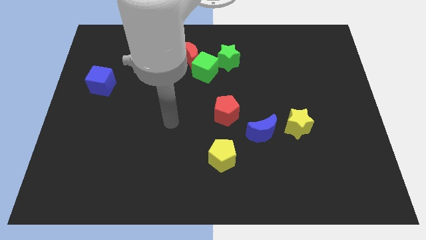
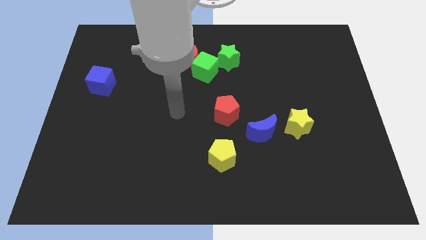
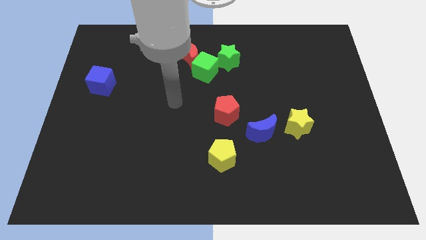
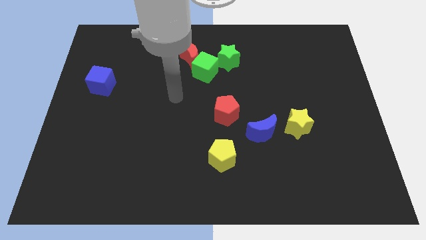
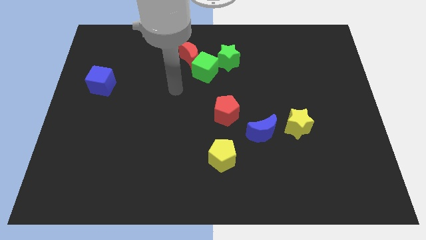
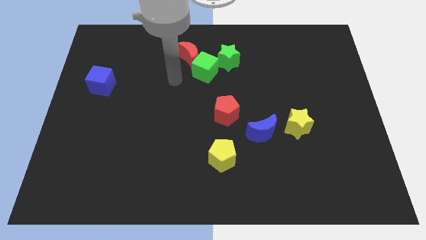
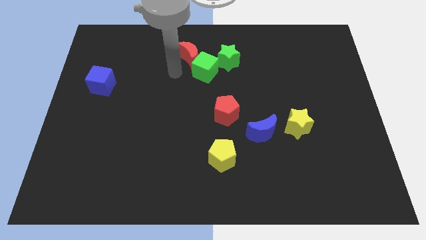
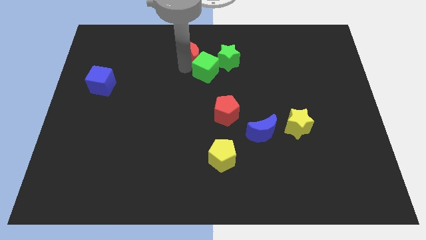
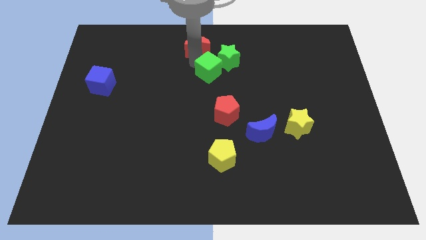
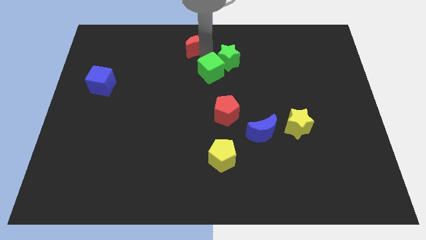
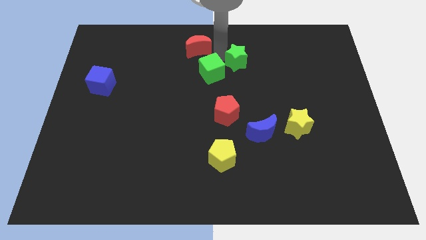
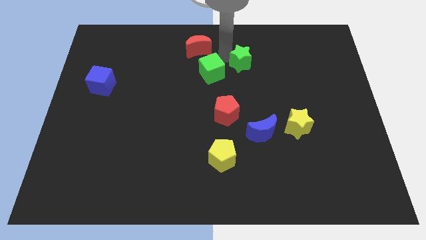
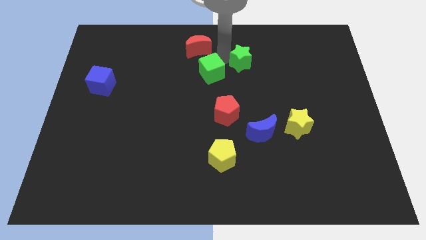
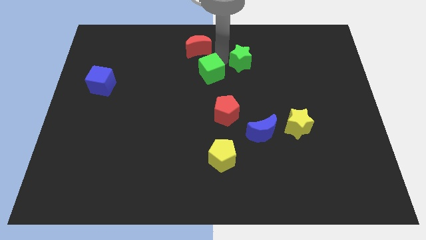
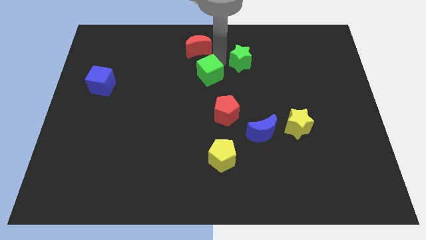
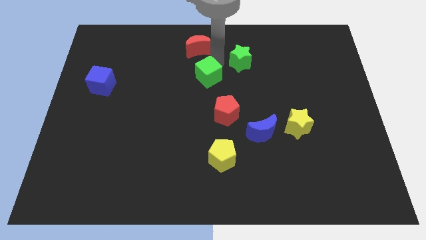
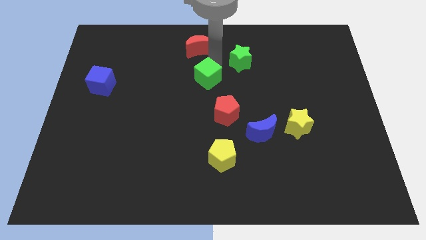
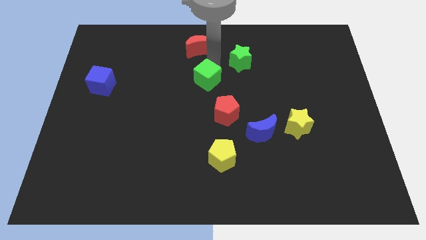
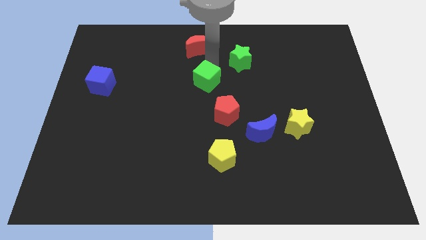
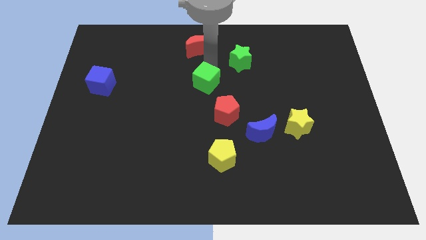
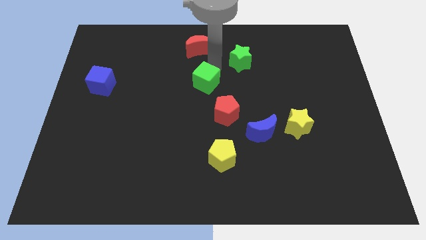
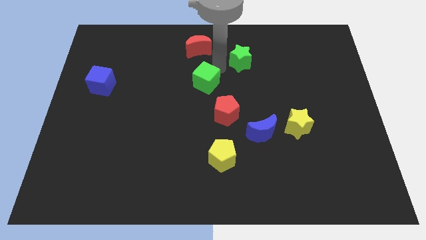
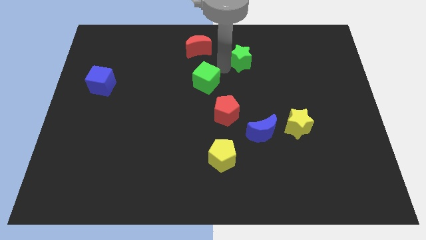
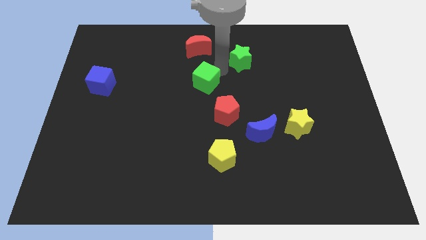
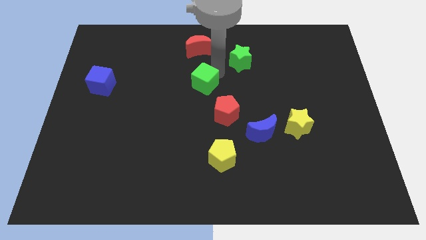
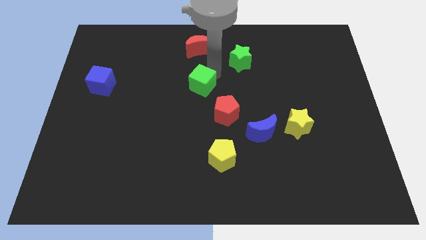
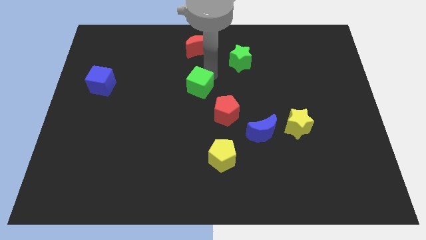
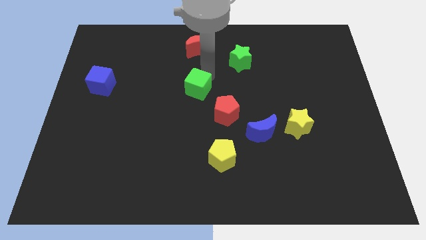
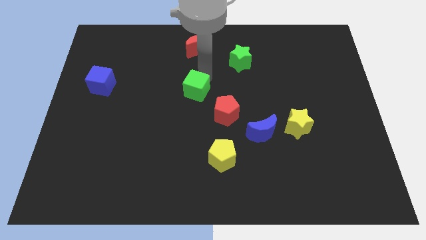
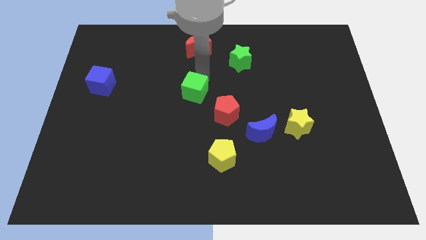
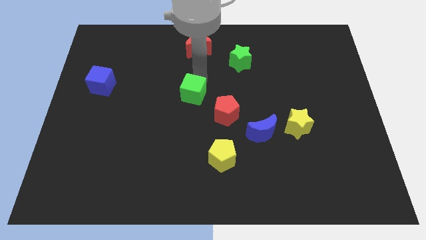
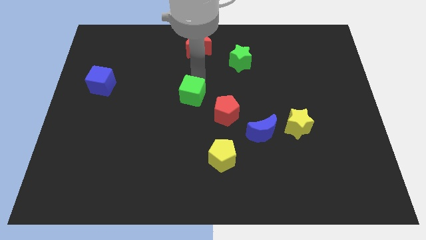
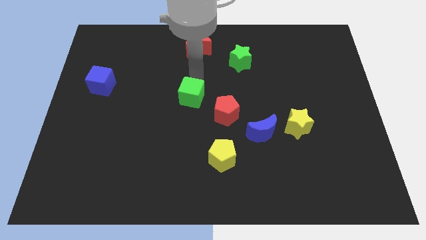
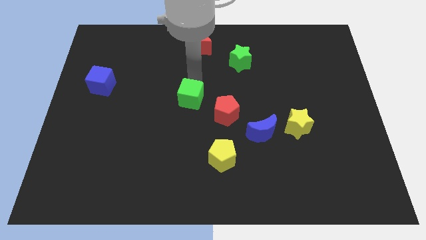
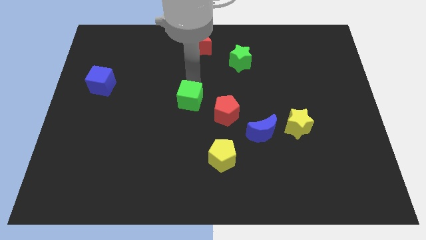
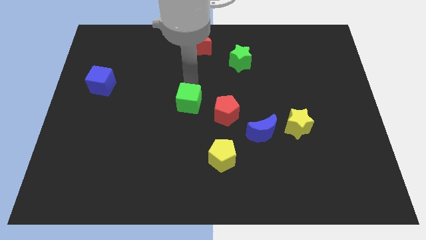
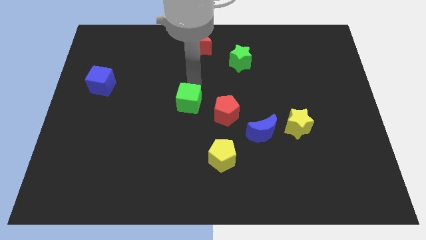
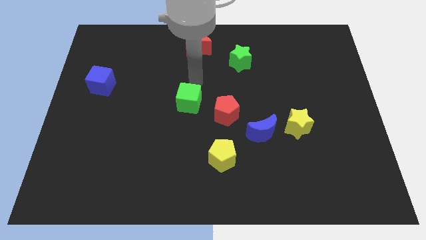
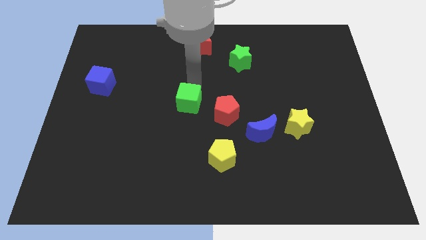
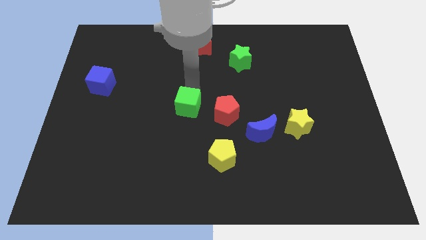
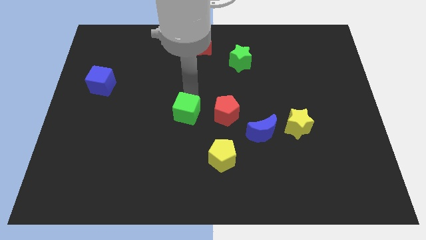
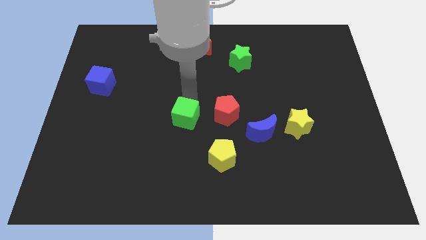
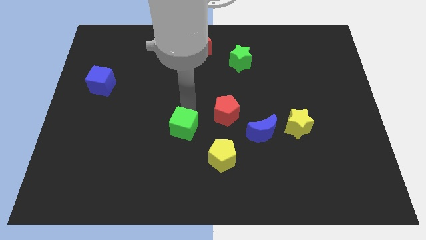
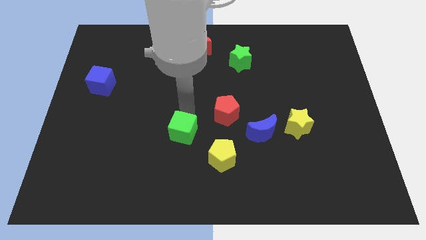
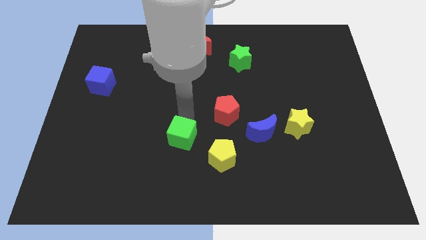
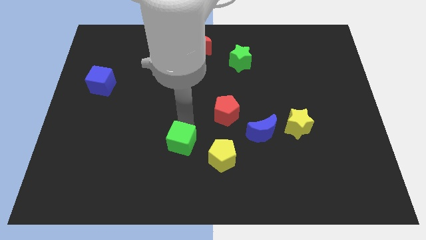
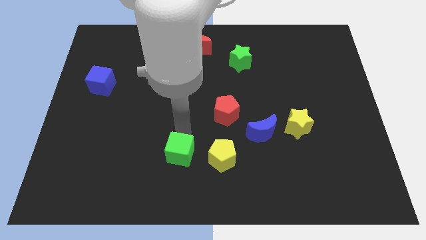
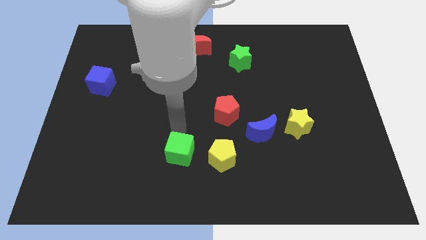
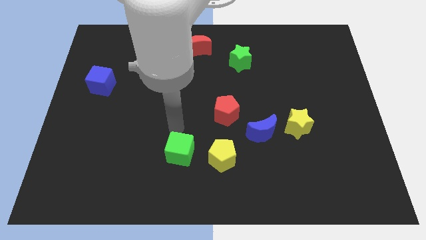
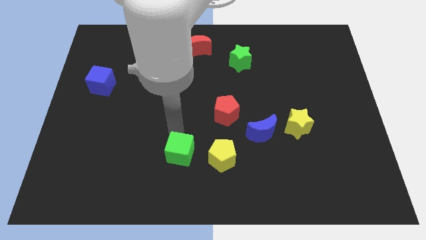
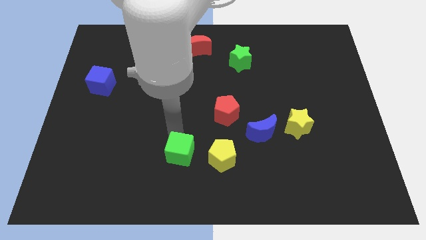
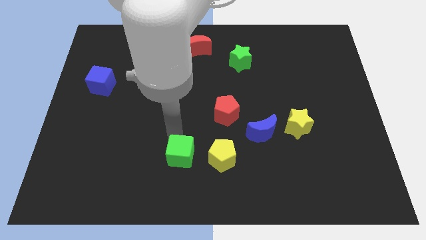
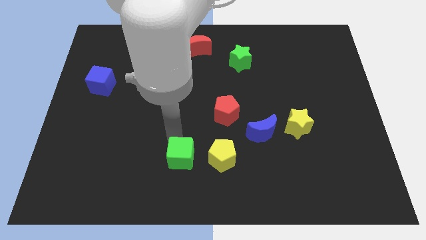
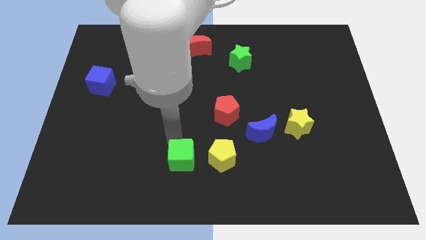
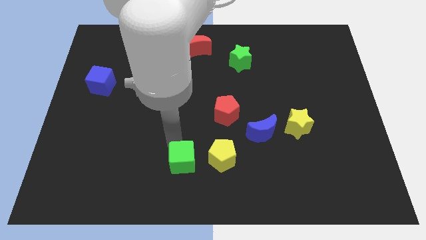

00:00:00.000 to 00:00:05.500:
push the green cube to the bottom side
